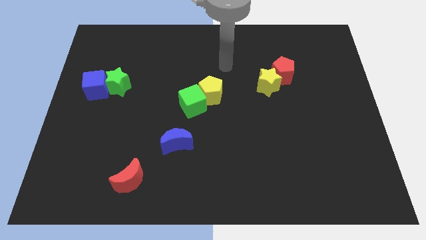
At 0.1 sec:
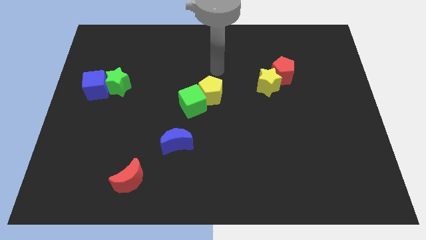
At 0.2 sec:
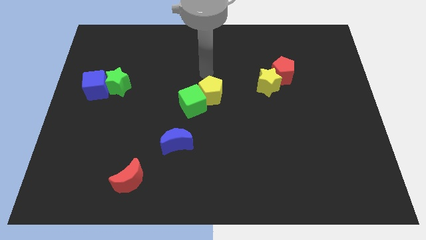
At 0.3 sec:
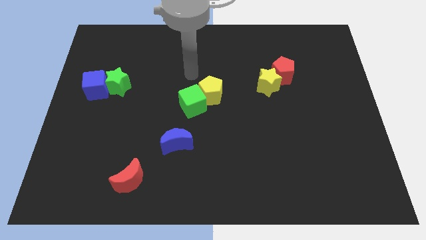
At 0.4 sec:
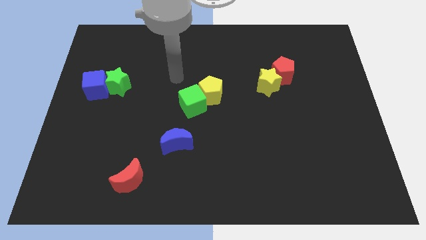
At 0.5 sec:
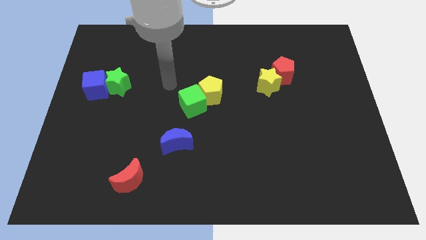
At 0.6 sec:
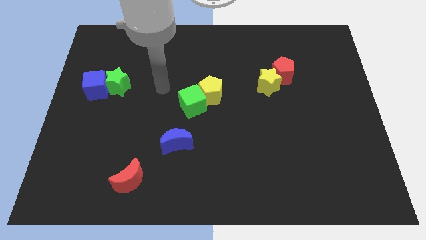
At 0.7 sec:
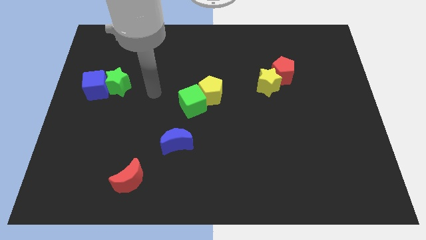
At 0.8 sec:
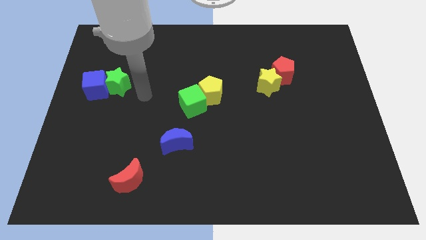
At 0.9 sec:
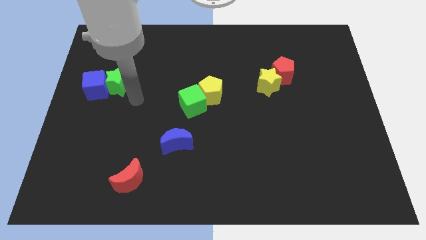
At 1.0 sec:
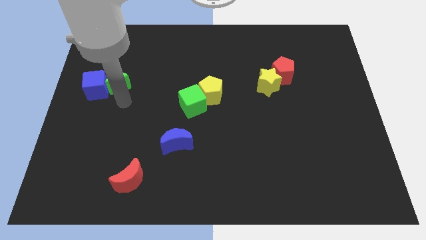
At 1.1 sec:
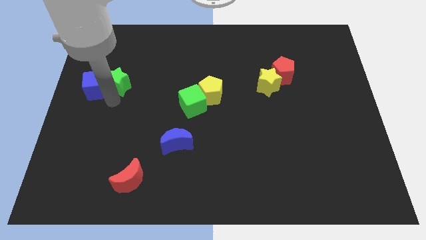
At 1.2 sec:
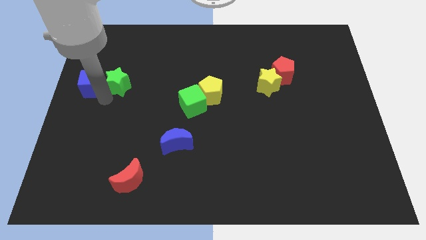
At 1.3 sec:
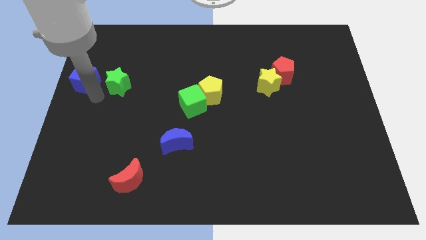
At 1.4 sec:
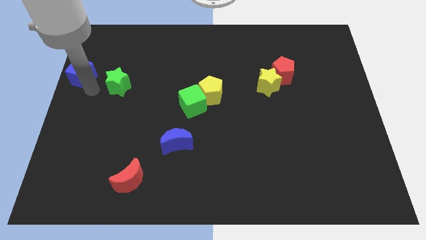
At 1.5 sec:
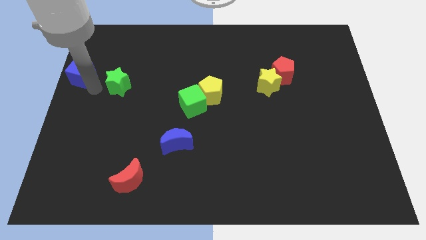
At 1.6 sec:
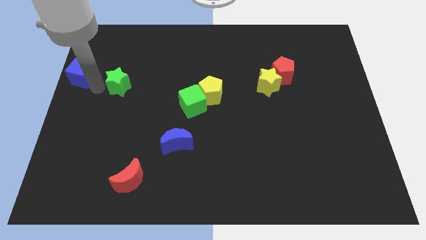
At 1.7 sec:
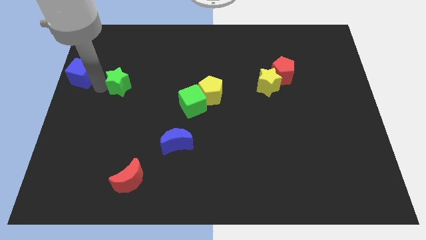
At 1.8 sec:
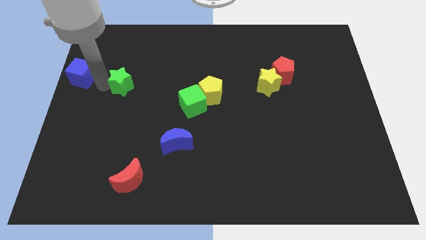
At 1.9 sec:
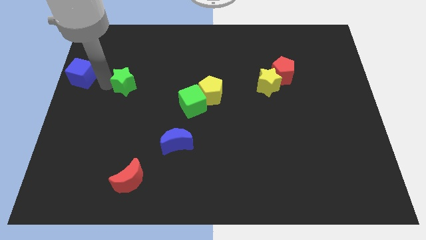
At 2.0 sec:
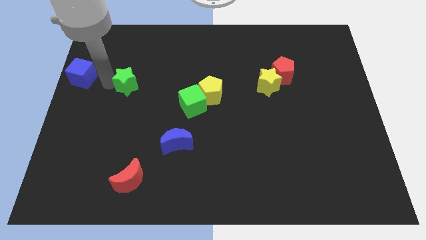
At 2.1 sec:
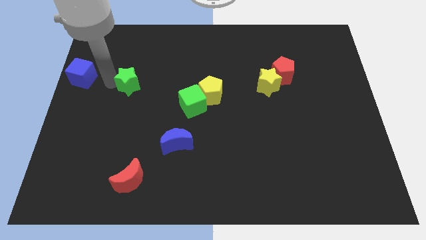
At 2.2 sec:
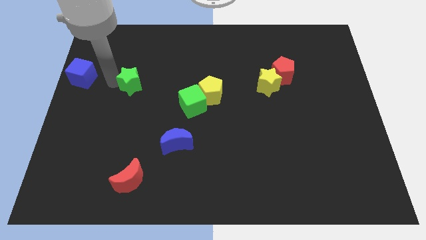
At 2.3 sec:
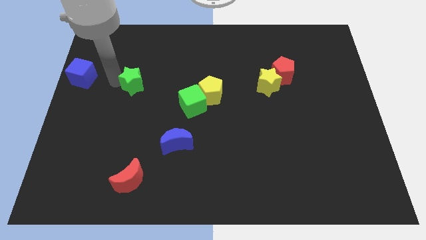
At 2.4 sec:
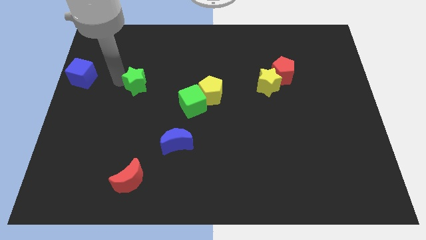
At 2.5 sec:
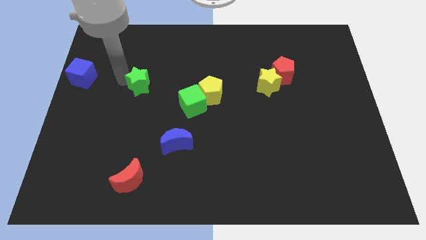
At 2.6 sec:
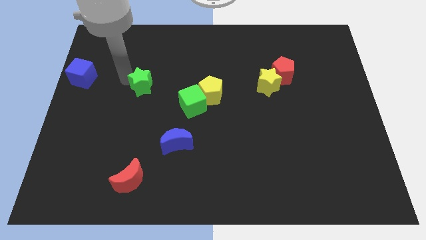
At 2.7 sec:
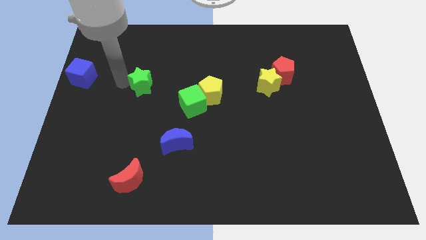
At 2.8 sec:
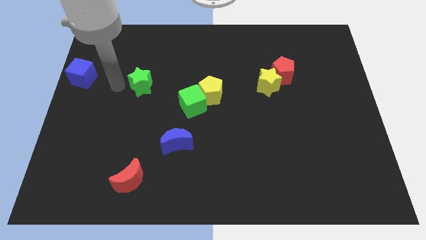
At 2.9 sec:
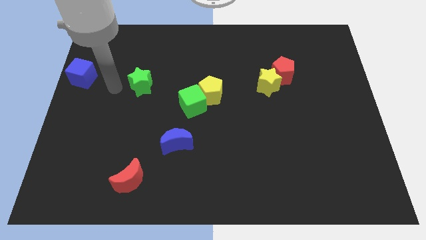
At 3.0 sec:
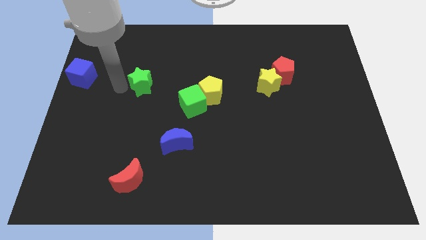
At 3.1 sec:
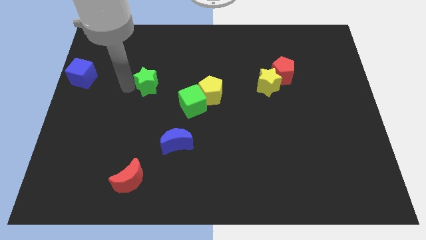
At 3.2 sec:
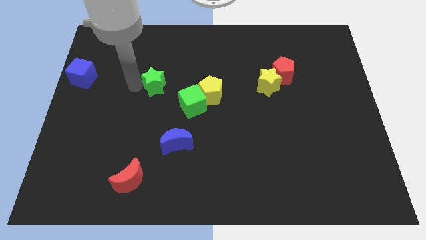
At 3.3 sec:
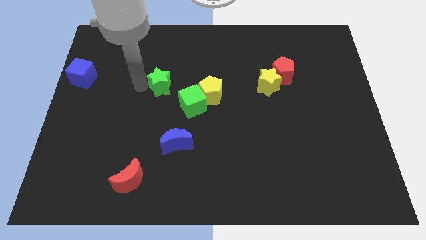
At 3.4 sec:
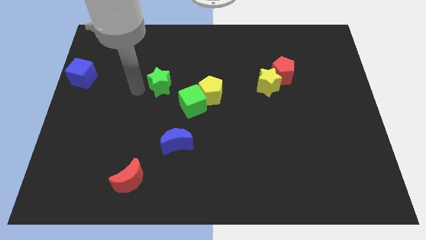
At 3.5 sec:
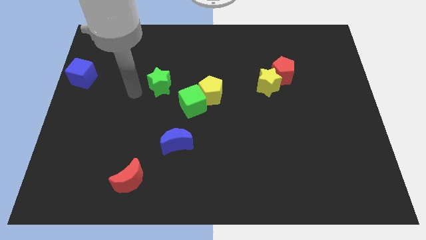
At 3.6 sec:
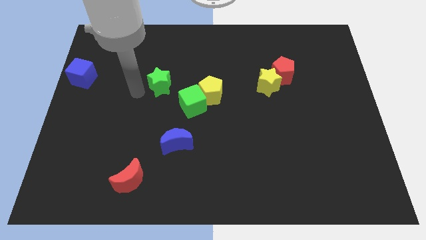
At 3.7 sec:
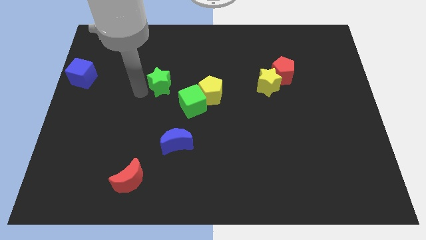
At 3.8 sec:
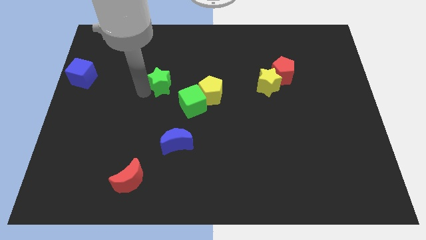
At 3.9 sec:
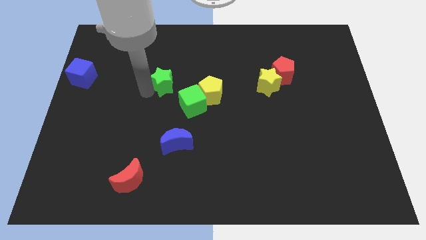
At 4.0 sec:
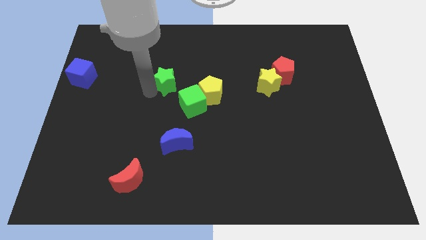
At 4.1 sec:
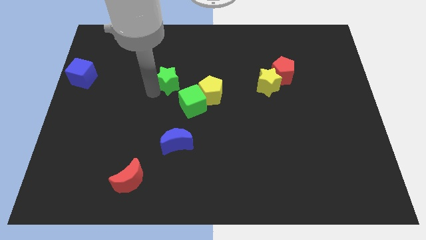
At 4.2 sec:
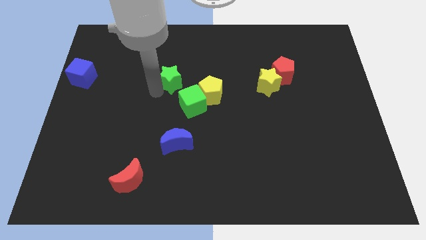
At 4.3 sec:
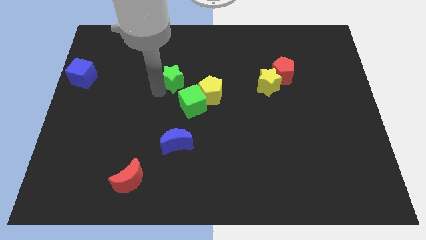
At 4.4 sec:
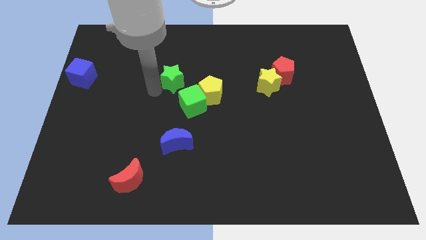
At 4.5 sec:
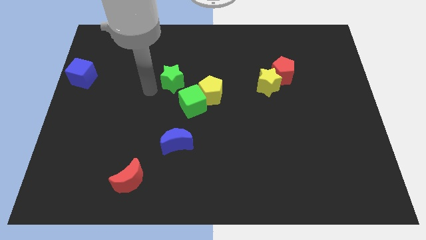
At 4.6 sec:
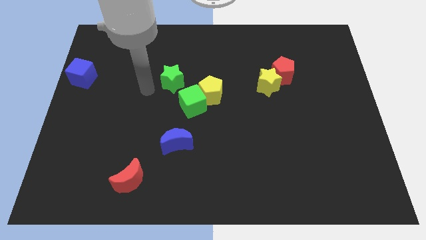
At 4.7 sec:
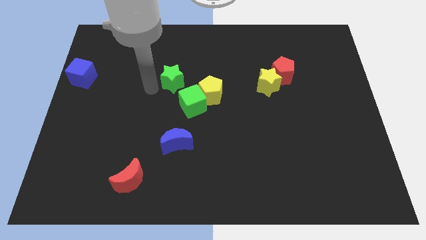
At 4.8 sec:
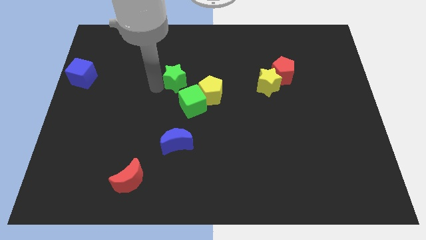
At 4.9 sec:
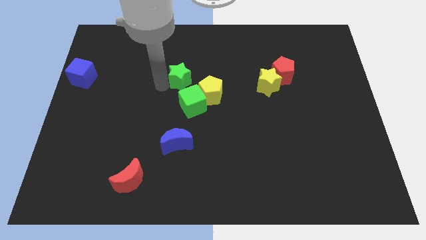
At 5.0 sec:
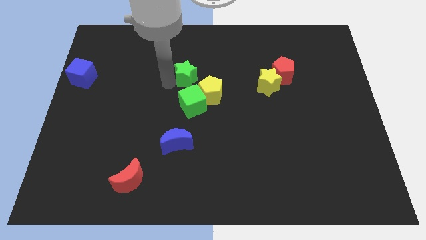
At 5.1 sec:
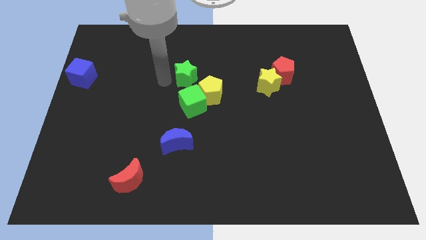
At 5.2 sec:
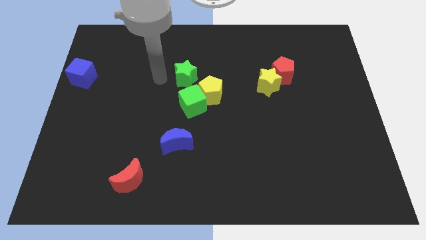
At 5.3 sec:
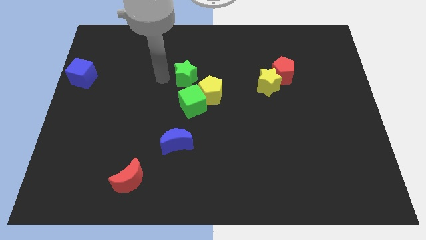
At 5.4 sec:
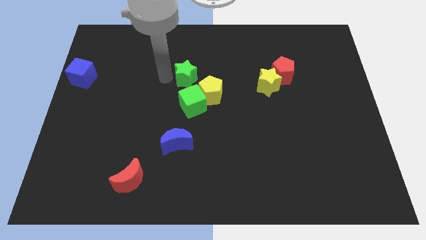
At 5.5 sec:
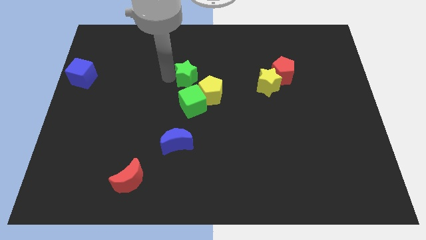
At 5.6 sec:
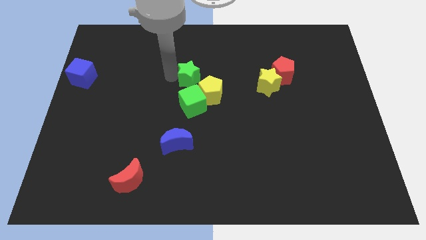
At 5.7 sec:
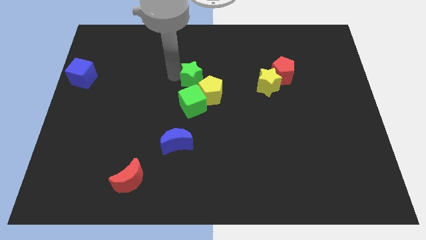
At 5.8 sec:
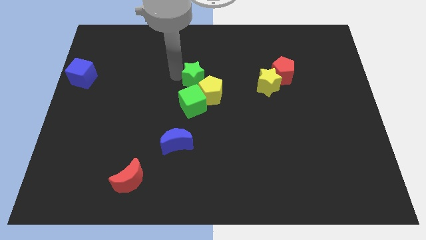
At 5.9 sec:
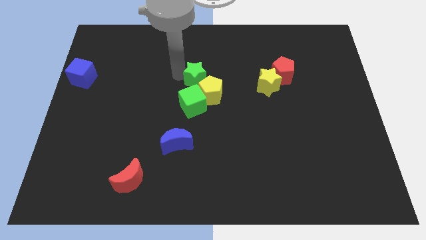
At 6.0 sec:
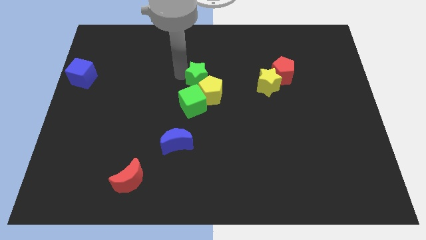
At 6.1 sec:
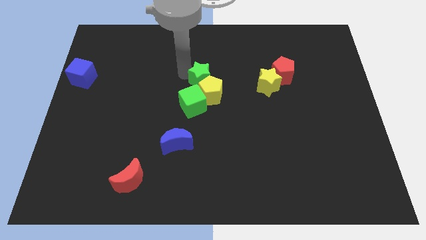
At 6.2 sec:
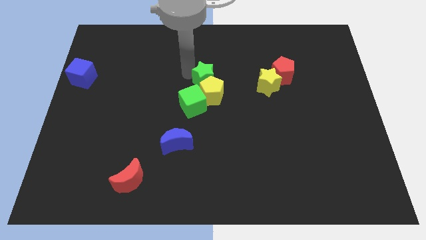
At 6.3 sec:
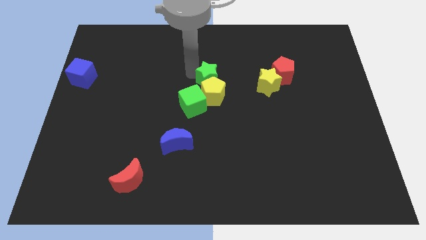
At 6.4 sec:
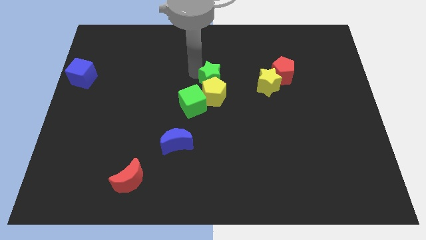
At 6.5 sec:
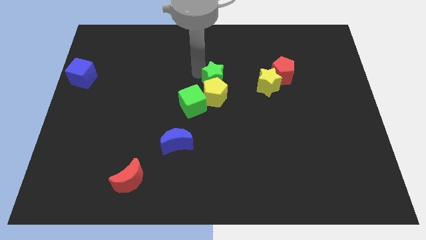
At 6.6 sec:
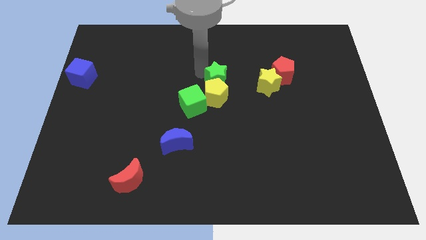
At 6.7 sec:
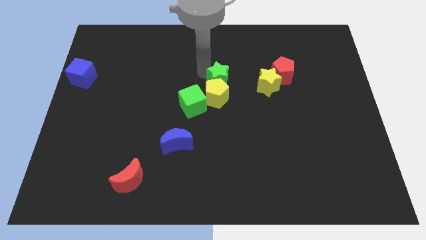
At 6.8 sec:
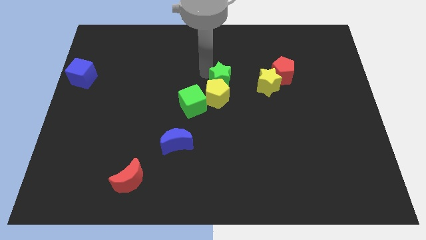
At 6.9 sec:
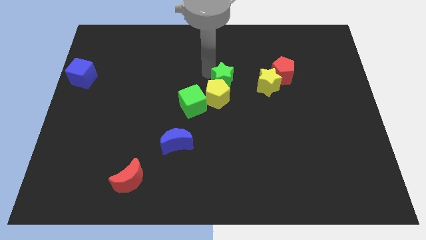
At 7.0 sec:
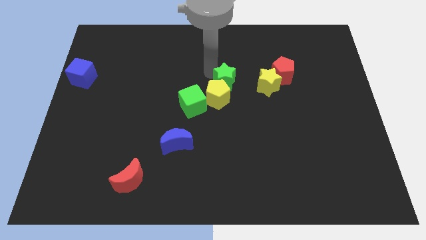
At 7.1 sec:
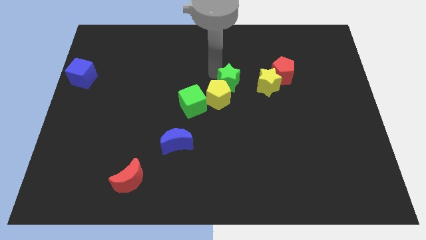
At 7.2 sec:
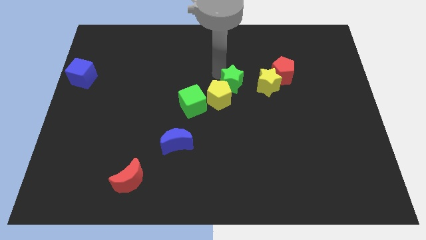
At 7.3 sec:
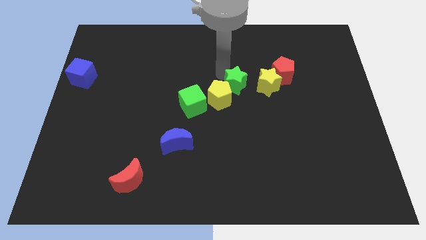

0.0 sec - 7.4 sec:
put the green star right of the yellow pentagon

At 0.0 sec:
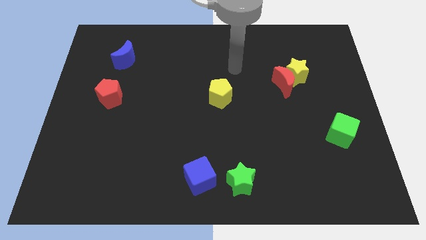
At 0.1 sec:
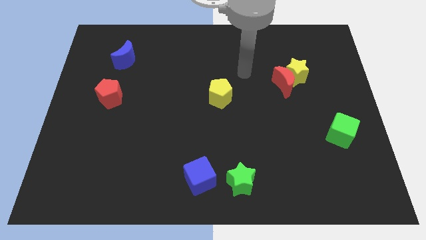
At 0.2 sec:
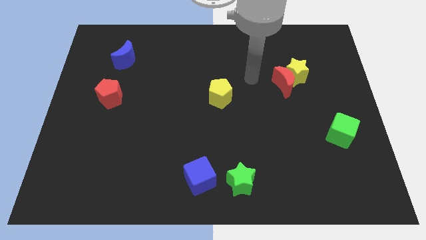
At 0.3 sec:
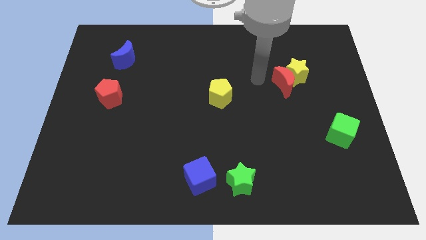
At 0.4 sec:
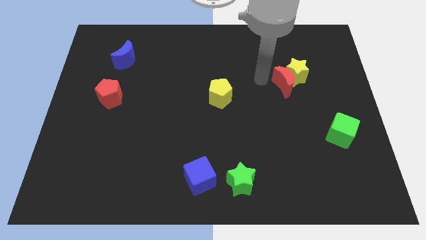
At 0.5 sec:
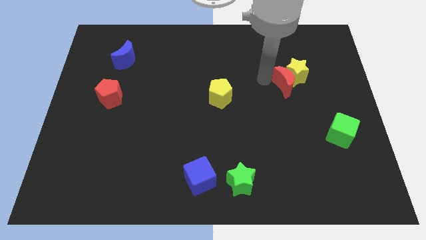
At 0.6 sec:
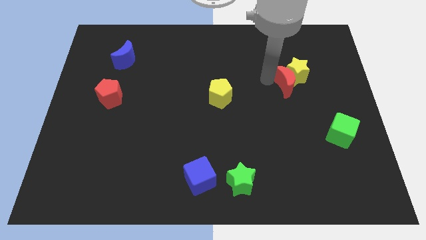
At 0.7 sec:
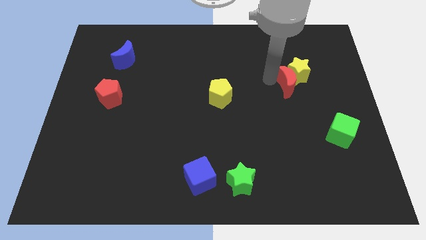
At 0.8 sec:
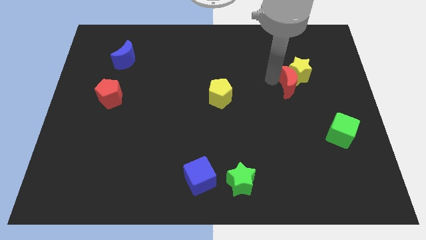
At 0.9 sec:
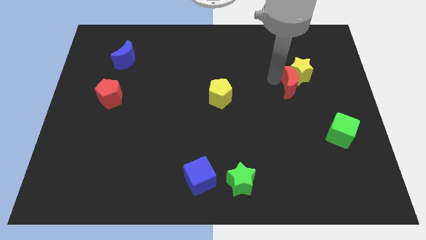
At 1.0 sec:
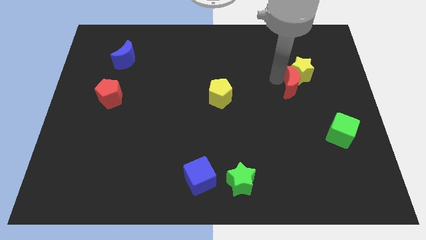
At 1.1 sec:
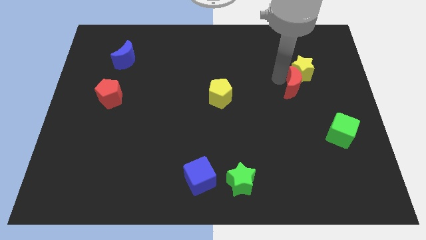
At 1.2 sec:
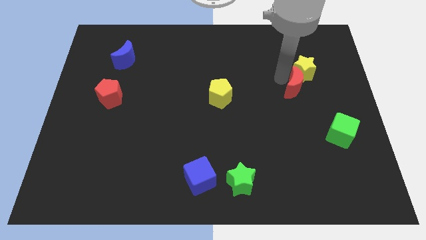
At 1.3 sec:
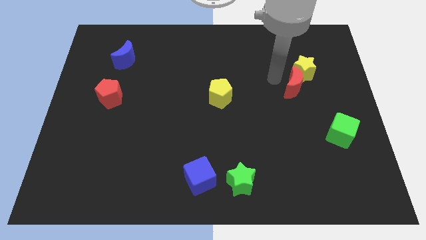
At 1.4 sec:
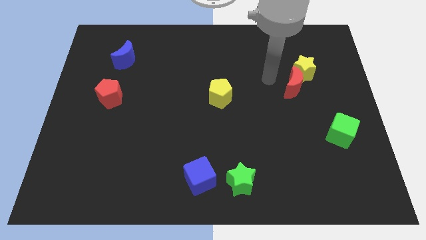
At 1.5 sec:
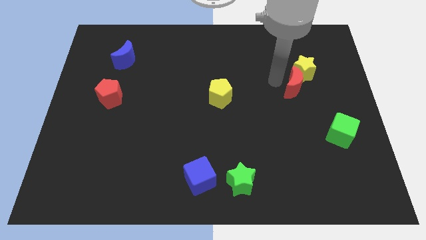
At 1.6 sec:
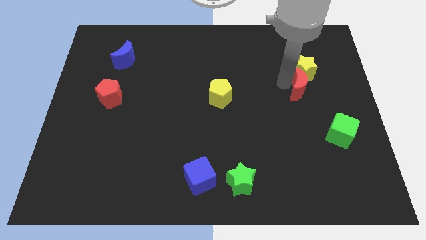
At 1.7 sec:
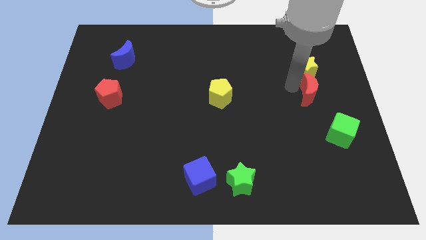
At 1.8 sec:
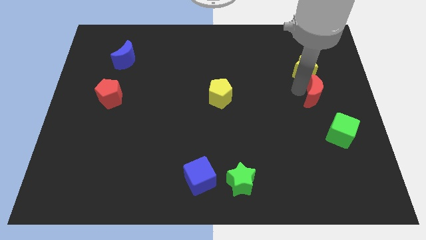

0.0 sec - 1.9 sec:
move the red moon to the top side of the green cube
